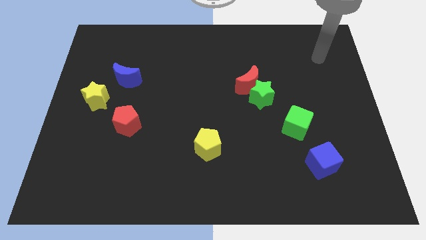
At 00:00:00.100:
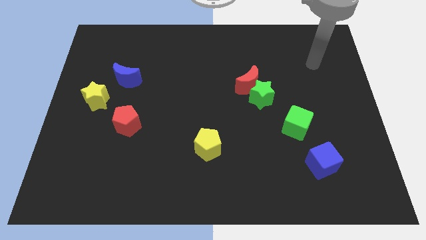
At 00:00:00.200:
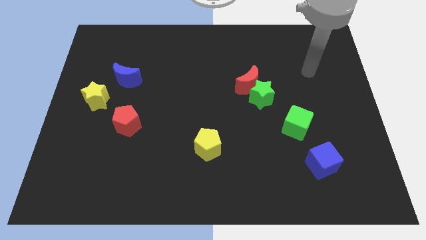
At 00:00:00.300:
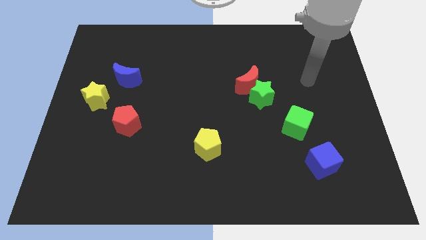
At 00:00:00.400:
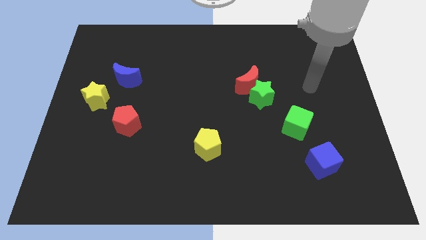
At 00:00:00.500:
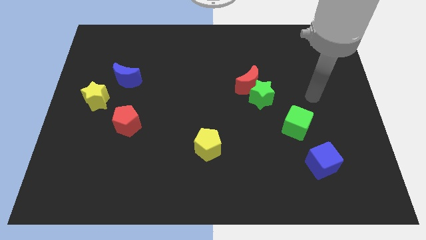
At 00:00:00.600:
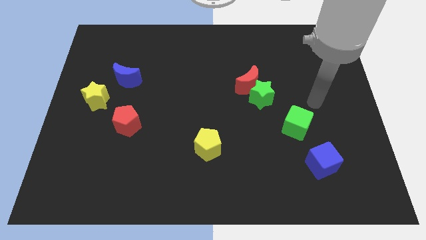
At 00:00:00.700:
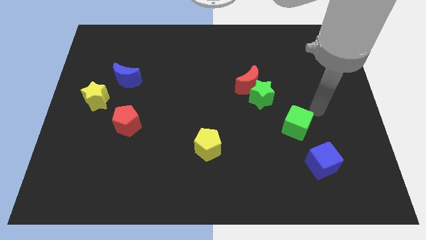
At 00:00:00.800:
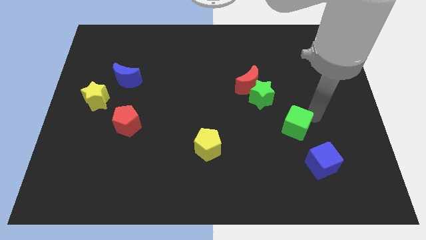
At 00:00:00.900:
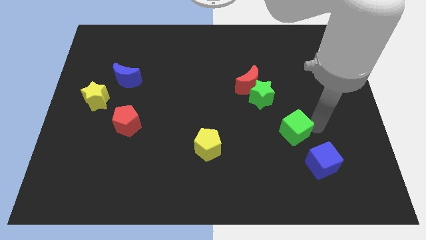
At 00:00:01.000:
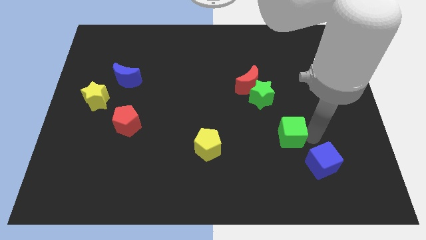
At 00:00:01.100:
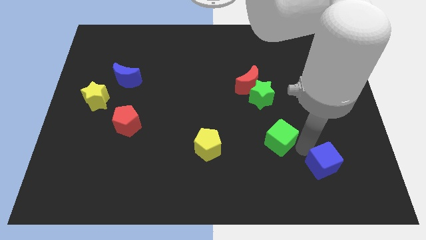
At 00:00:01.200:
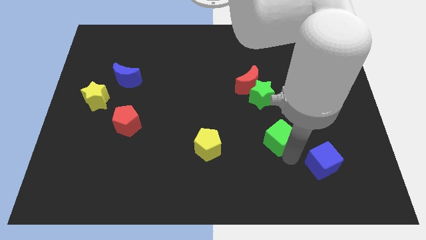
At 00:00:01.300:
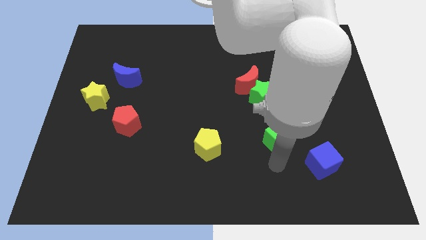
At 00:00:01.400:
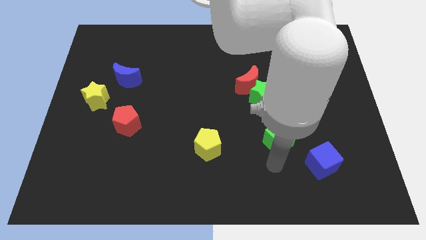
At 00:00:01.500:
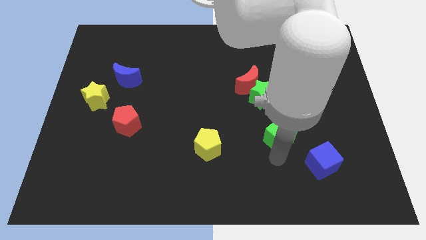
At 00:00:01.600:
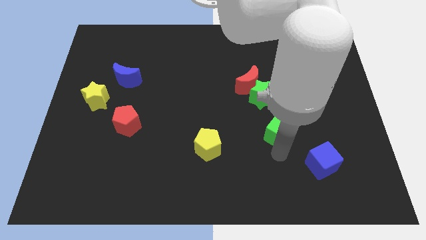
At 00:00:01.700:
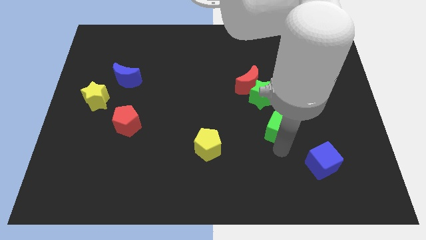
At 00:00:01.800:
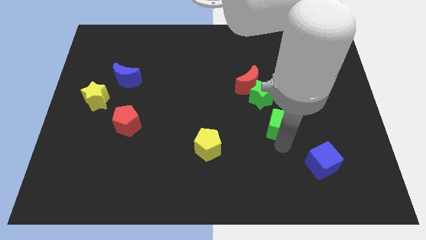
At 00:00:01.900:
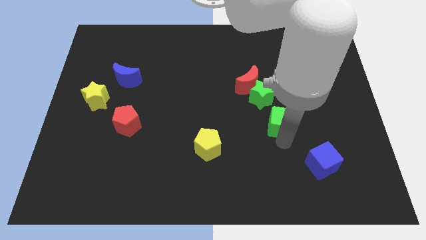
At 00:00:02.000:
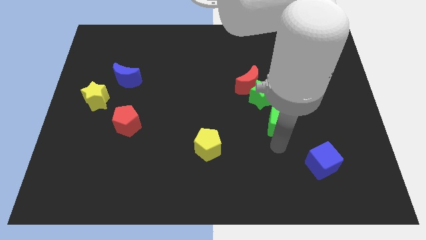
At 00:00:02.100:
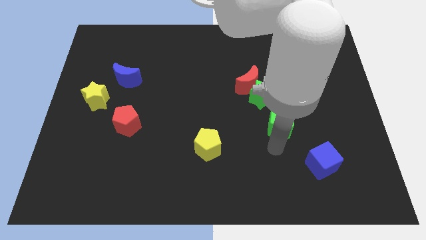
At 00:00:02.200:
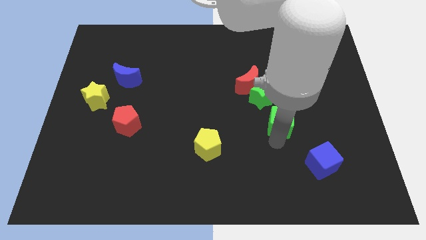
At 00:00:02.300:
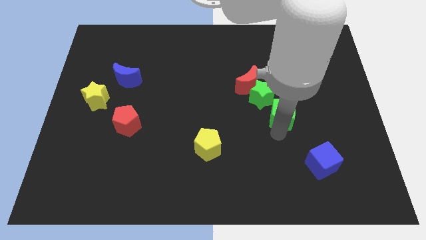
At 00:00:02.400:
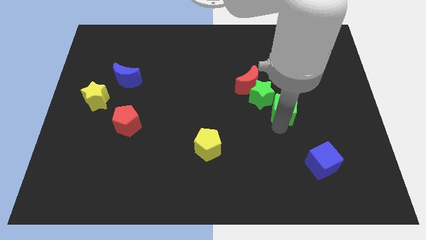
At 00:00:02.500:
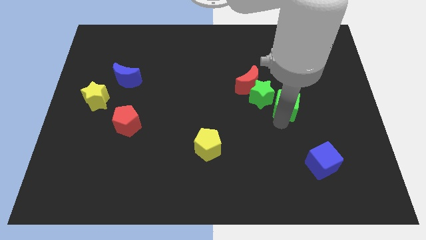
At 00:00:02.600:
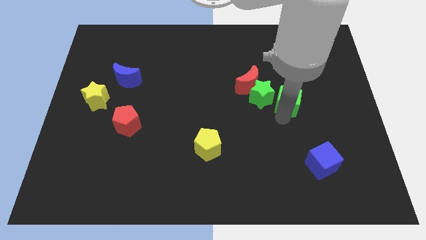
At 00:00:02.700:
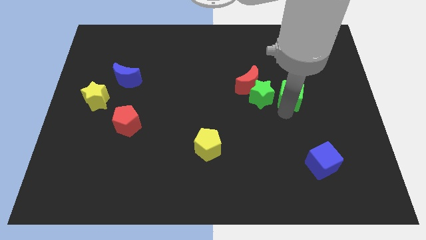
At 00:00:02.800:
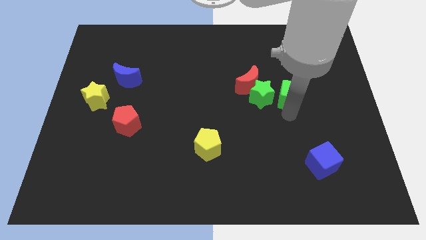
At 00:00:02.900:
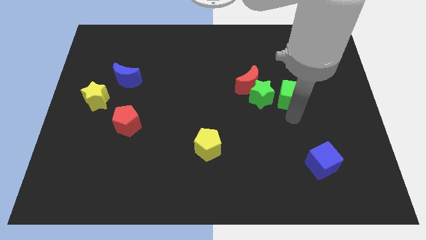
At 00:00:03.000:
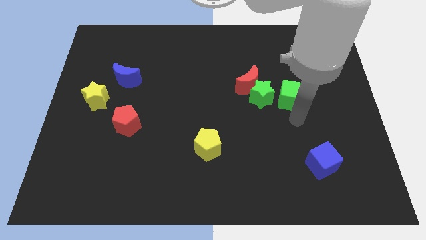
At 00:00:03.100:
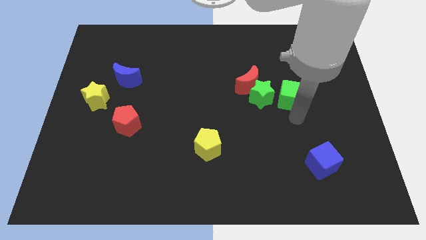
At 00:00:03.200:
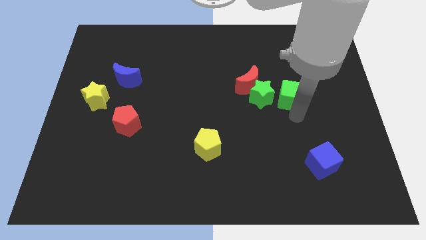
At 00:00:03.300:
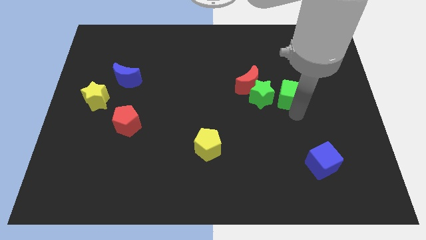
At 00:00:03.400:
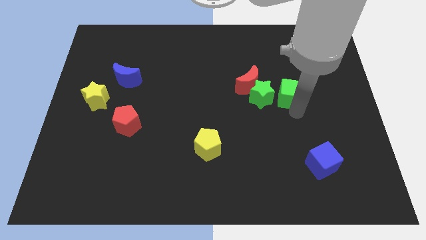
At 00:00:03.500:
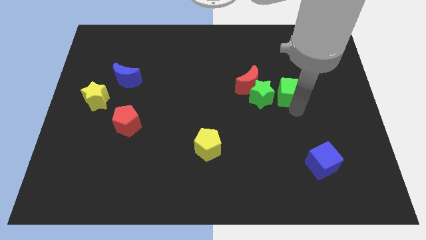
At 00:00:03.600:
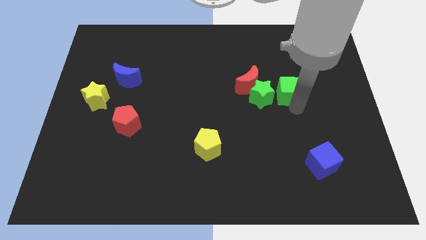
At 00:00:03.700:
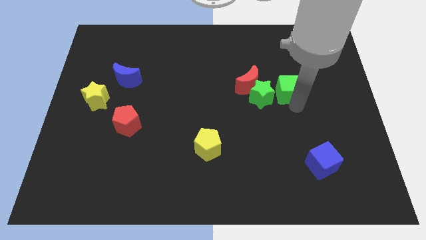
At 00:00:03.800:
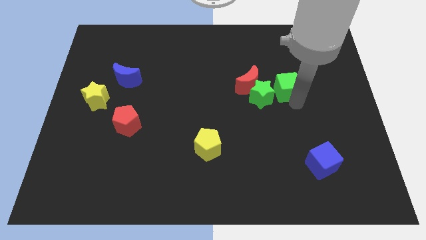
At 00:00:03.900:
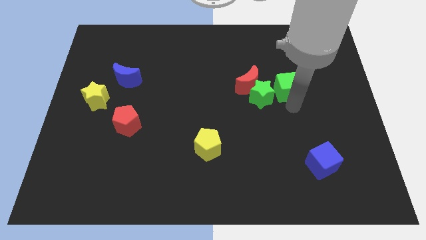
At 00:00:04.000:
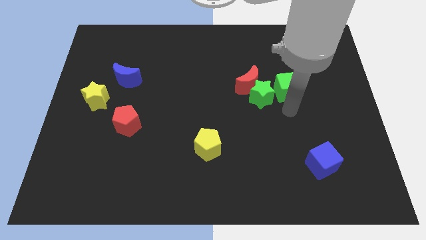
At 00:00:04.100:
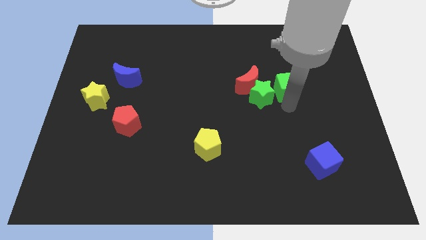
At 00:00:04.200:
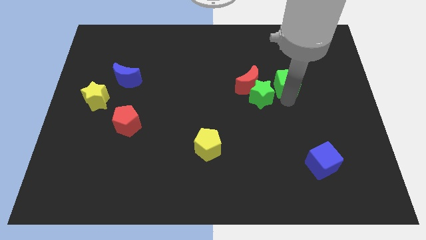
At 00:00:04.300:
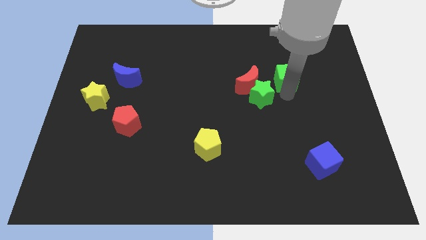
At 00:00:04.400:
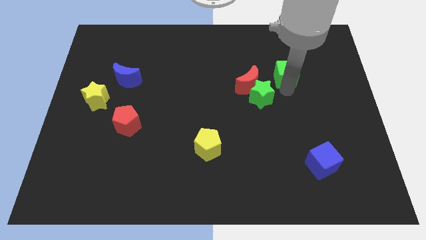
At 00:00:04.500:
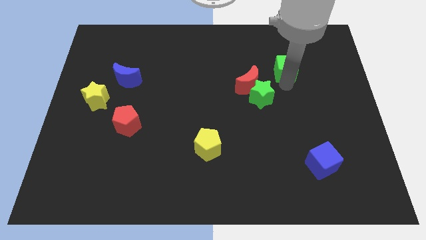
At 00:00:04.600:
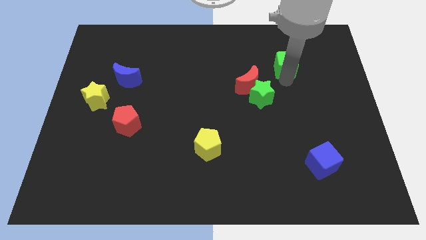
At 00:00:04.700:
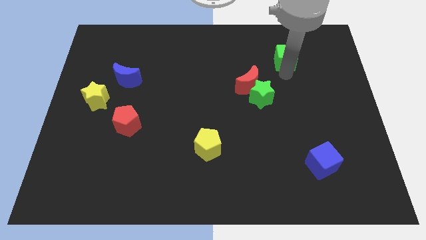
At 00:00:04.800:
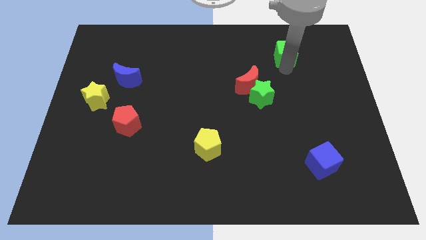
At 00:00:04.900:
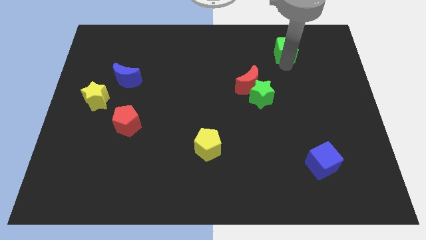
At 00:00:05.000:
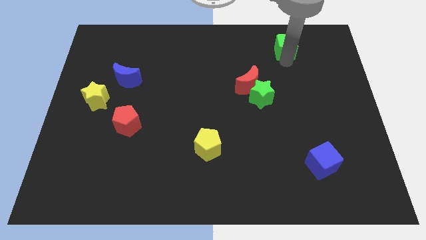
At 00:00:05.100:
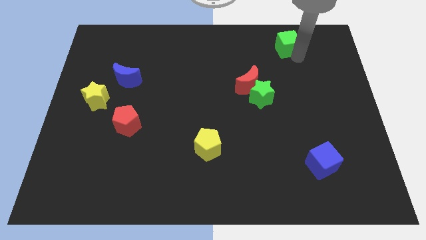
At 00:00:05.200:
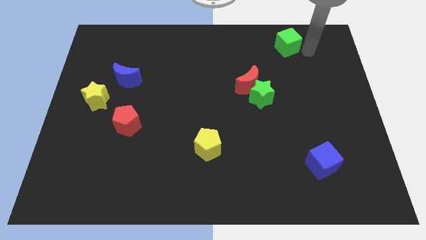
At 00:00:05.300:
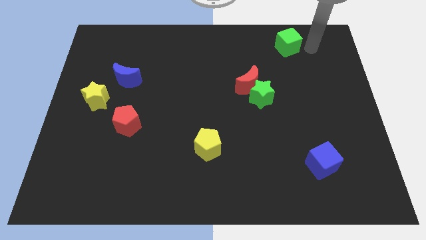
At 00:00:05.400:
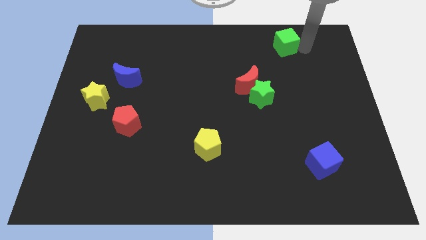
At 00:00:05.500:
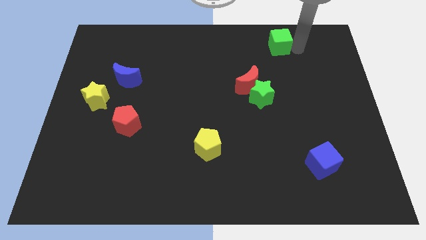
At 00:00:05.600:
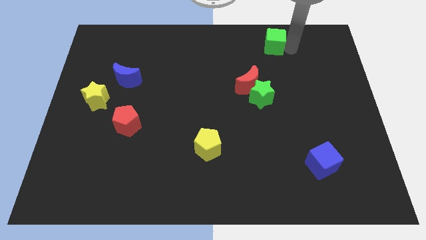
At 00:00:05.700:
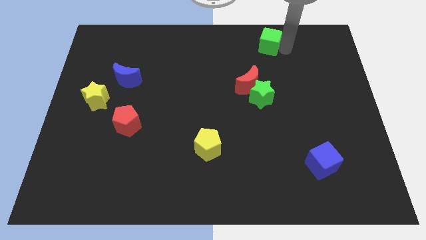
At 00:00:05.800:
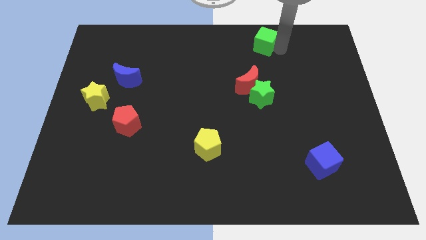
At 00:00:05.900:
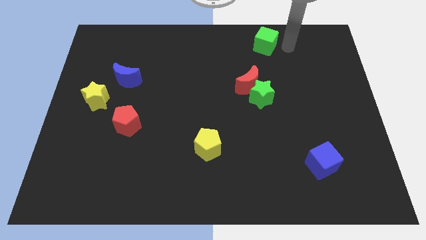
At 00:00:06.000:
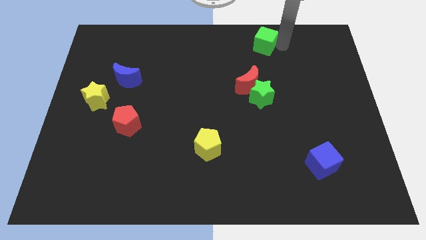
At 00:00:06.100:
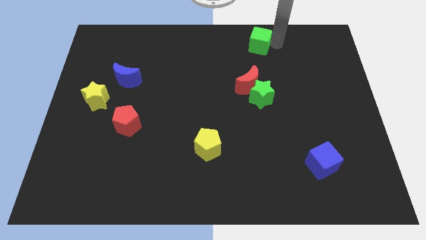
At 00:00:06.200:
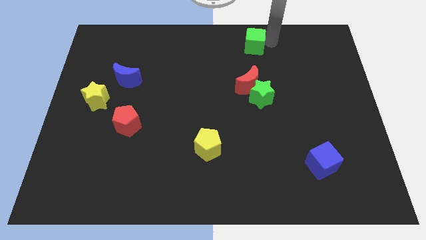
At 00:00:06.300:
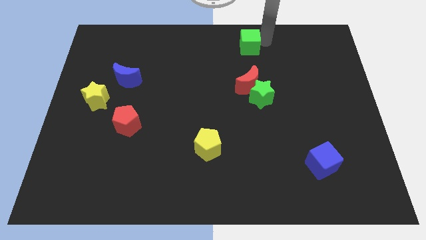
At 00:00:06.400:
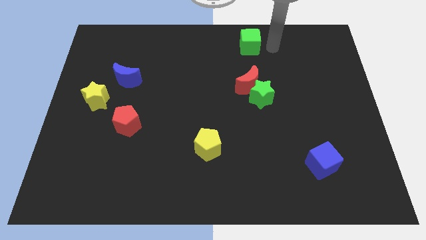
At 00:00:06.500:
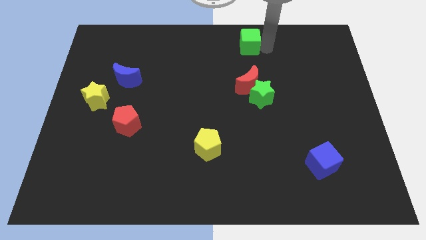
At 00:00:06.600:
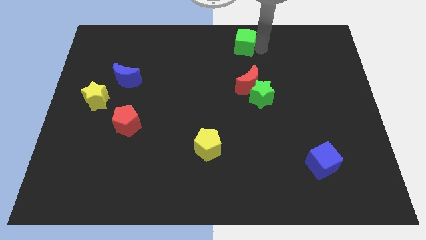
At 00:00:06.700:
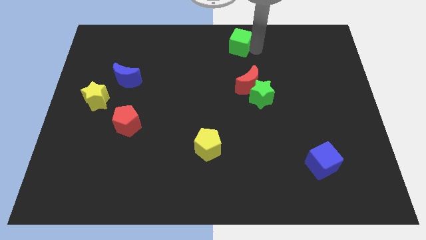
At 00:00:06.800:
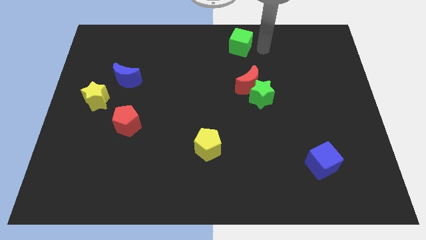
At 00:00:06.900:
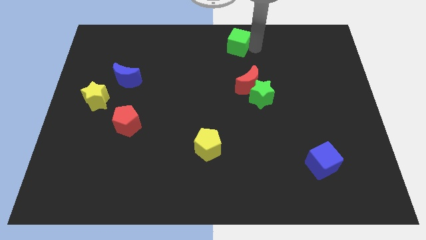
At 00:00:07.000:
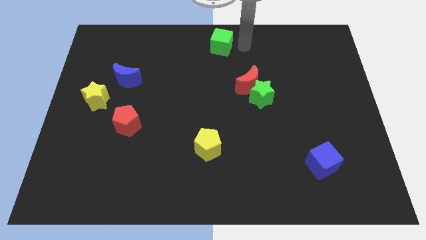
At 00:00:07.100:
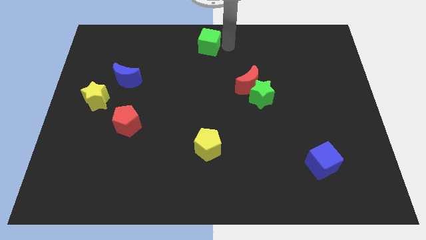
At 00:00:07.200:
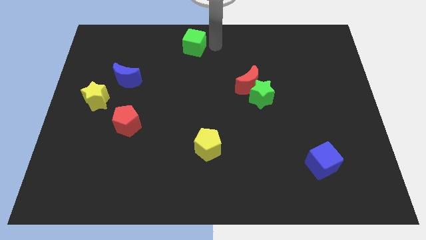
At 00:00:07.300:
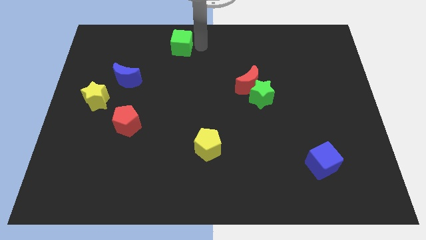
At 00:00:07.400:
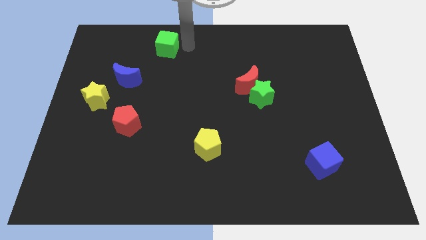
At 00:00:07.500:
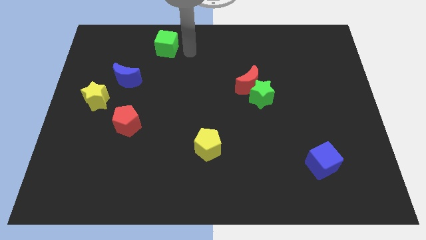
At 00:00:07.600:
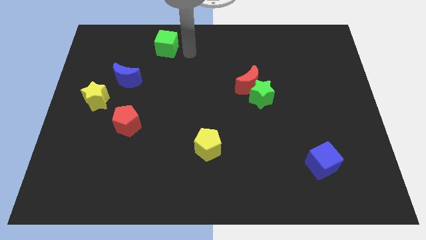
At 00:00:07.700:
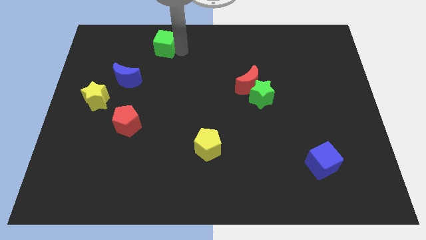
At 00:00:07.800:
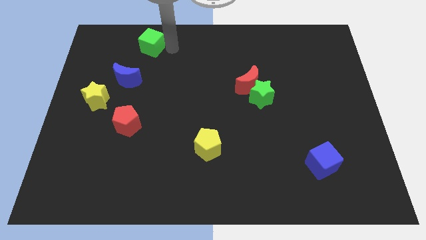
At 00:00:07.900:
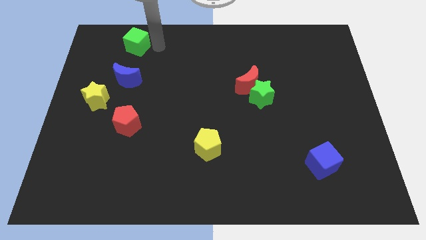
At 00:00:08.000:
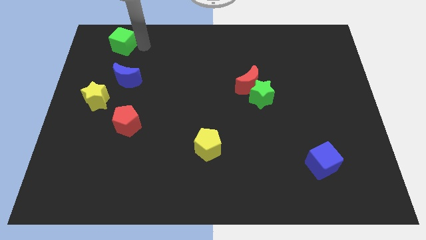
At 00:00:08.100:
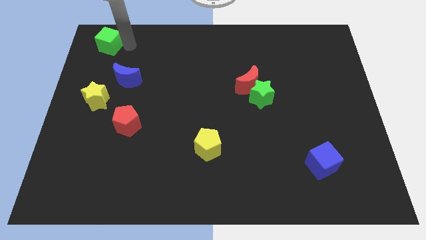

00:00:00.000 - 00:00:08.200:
move the green cube to the upper left corner
